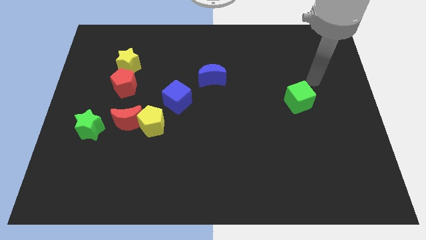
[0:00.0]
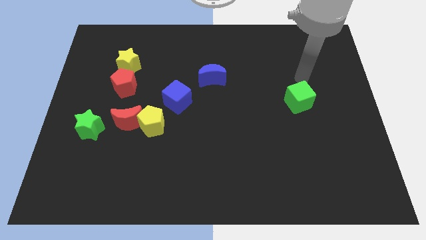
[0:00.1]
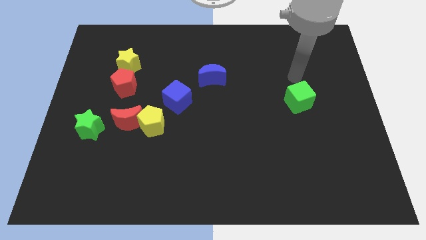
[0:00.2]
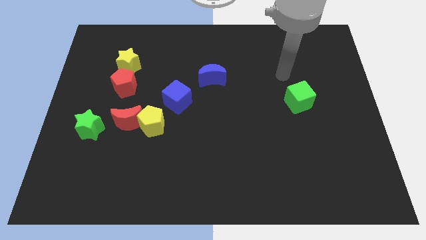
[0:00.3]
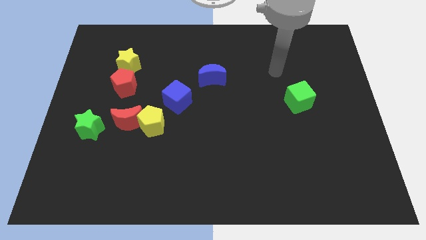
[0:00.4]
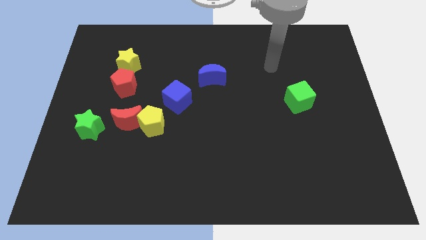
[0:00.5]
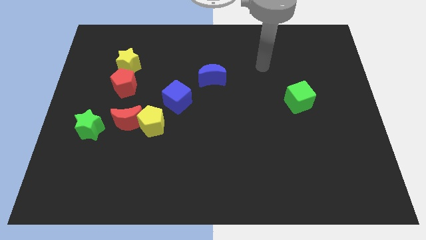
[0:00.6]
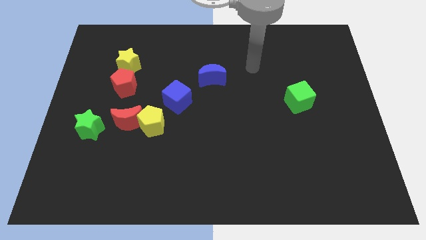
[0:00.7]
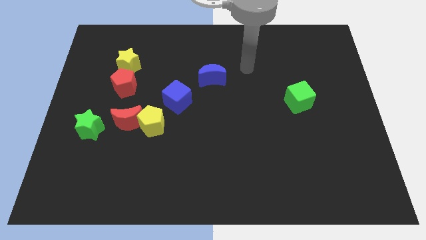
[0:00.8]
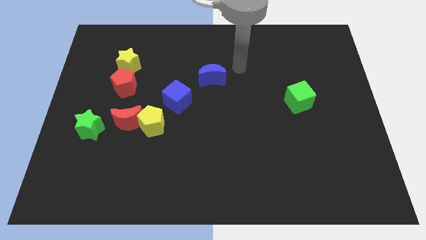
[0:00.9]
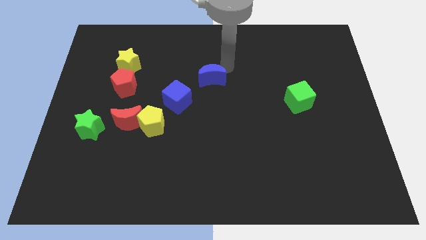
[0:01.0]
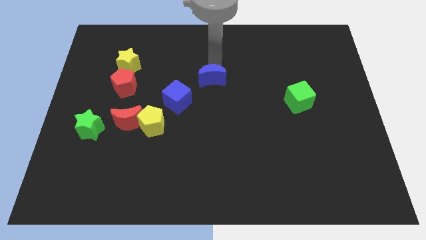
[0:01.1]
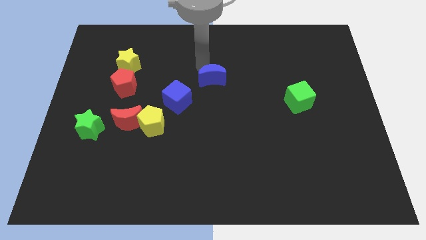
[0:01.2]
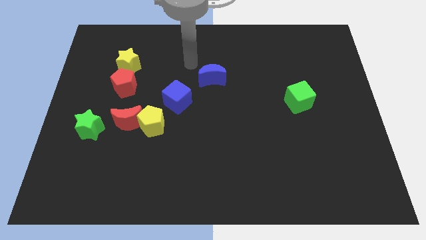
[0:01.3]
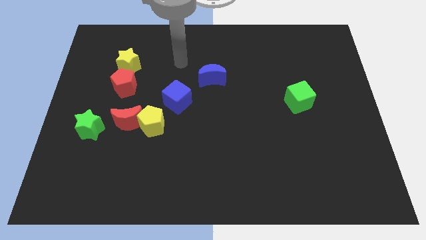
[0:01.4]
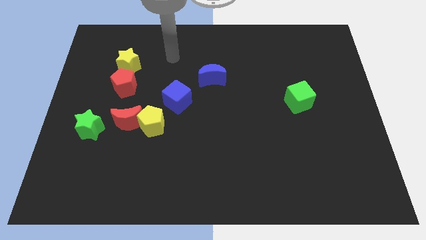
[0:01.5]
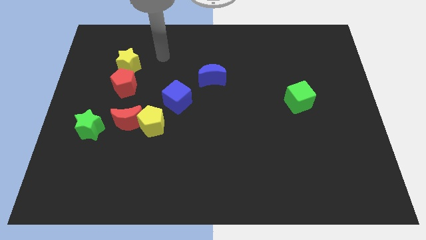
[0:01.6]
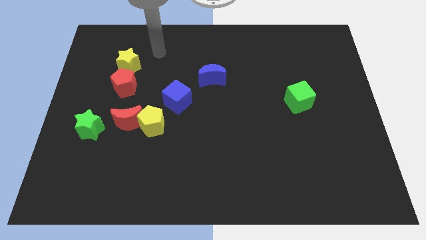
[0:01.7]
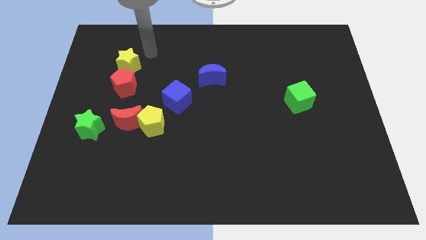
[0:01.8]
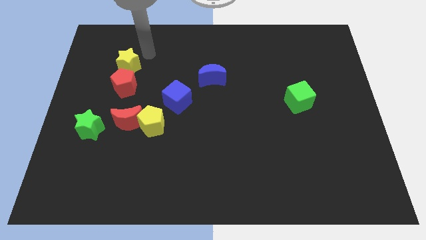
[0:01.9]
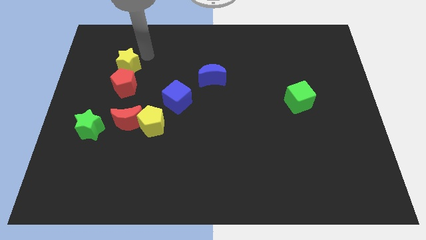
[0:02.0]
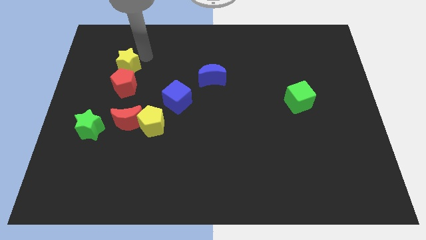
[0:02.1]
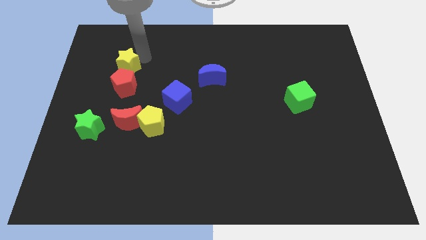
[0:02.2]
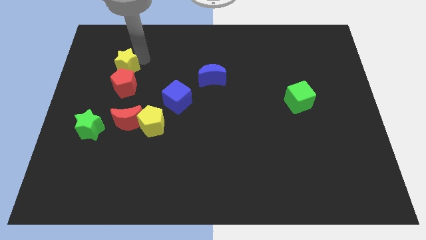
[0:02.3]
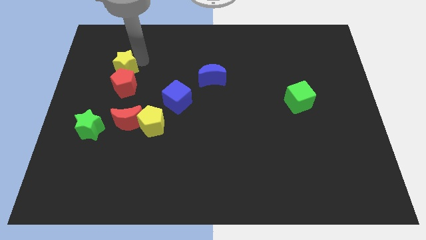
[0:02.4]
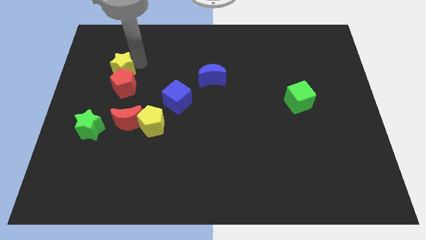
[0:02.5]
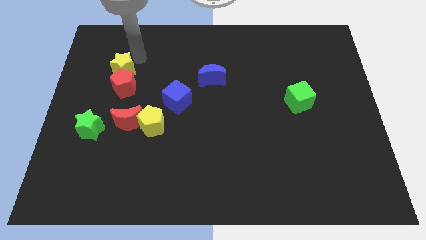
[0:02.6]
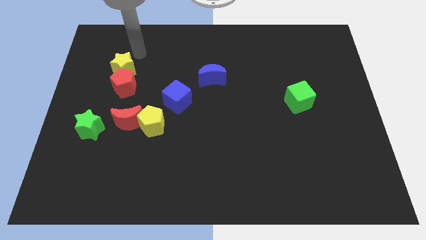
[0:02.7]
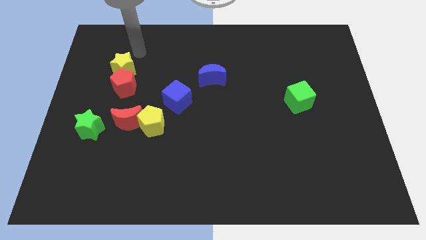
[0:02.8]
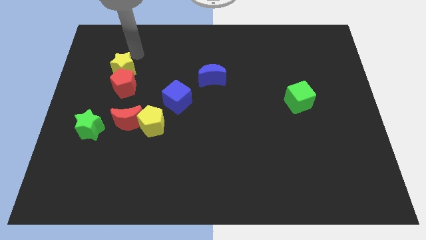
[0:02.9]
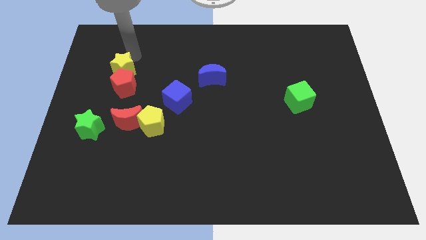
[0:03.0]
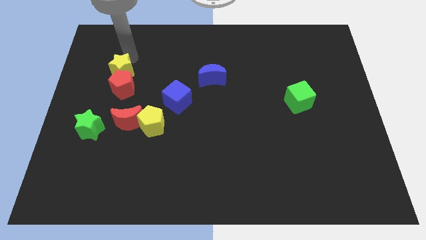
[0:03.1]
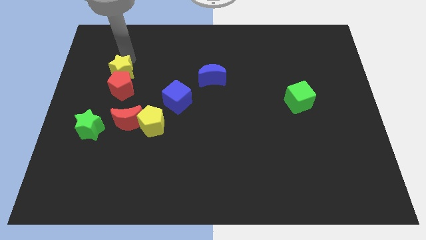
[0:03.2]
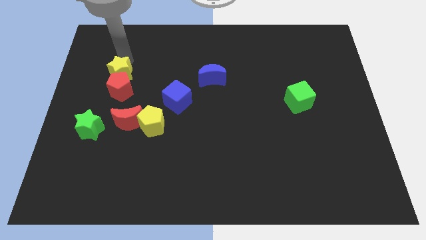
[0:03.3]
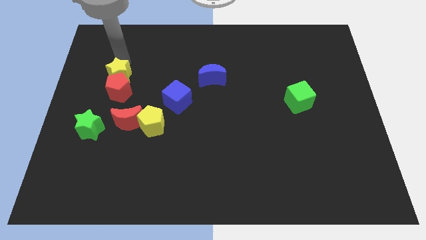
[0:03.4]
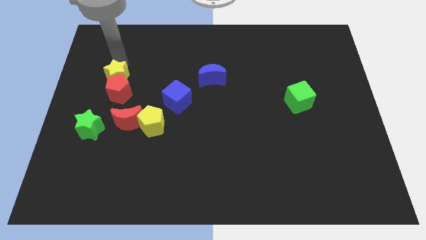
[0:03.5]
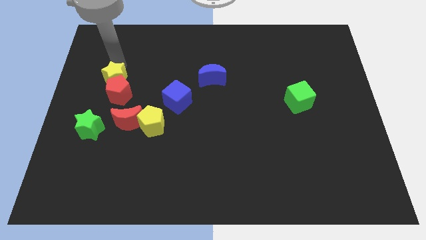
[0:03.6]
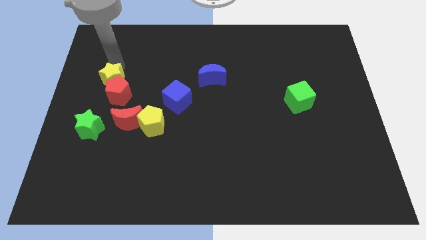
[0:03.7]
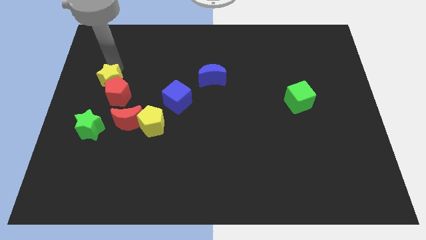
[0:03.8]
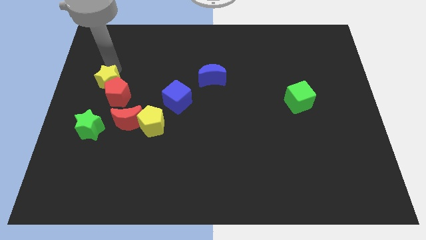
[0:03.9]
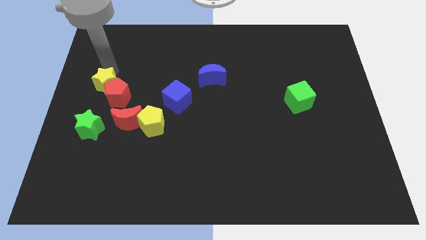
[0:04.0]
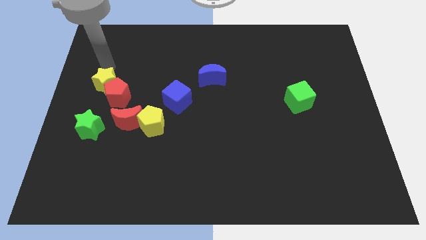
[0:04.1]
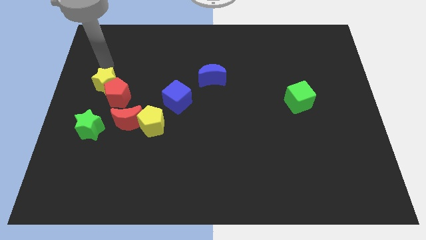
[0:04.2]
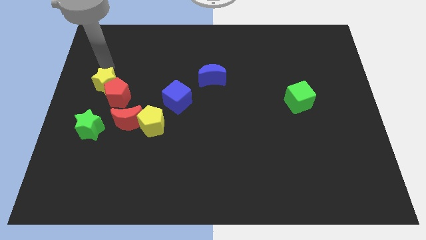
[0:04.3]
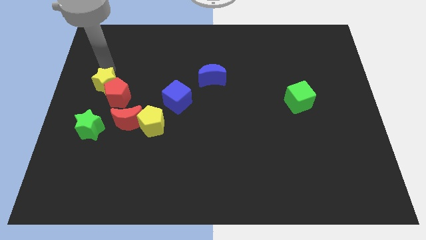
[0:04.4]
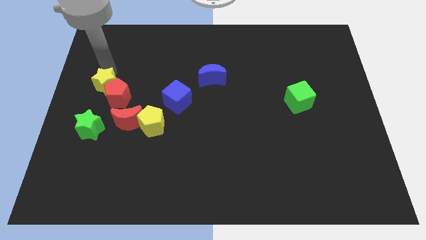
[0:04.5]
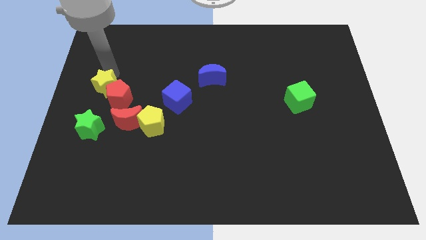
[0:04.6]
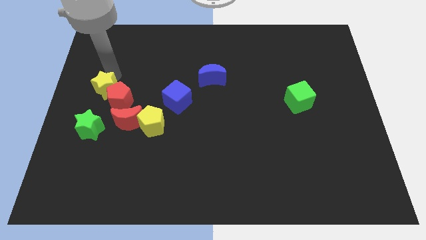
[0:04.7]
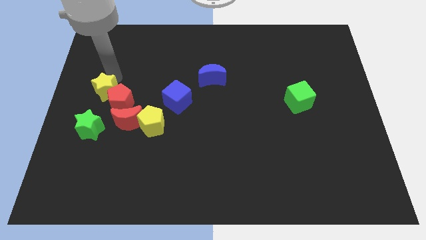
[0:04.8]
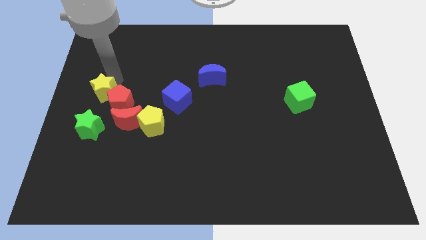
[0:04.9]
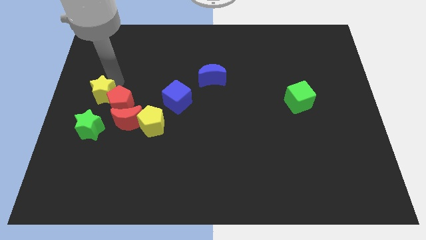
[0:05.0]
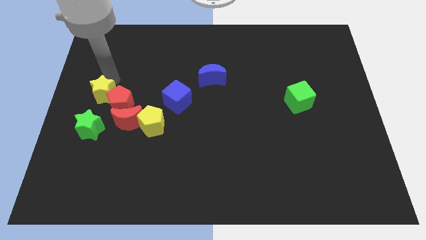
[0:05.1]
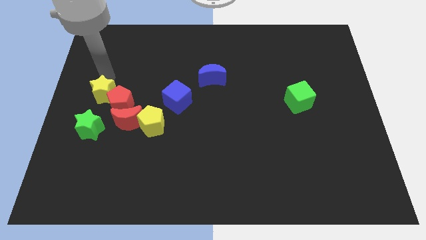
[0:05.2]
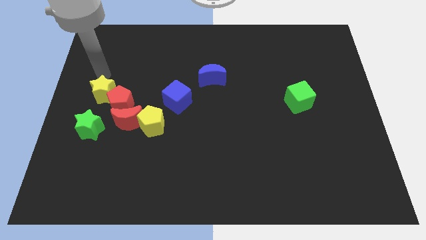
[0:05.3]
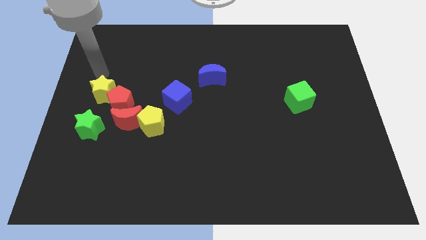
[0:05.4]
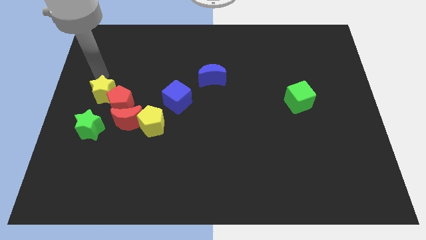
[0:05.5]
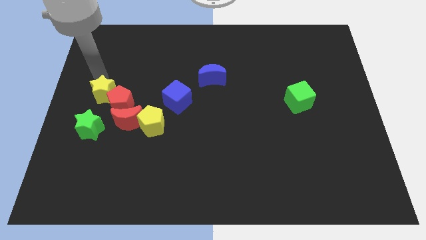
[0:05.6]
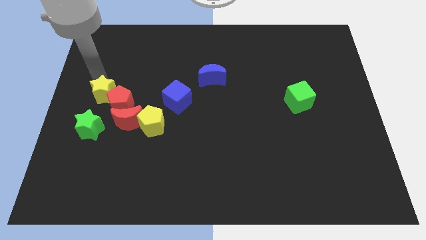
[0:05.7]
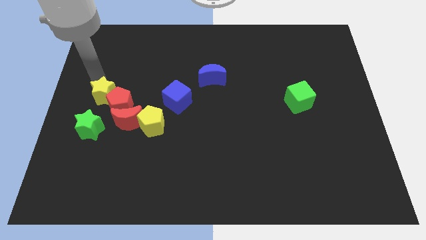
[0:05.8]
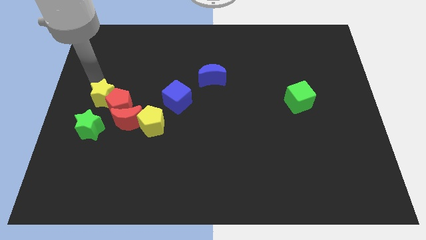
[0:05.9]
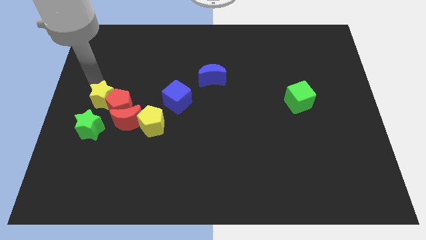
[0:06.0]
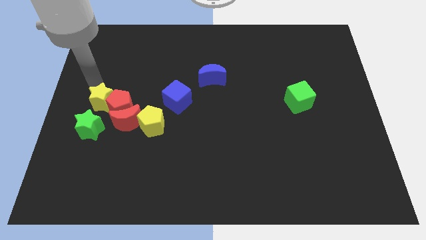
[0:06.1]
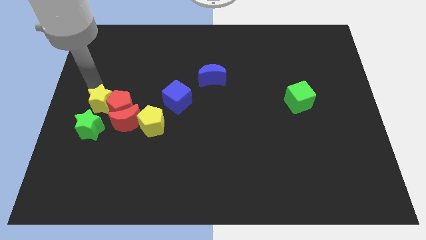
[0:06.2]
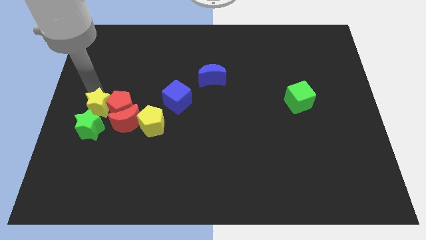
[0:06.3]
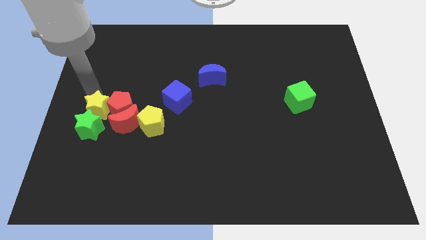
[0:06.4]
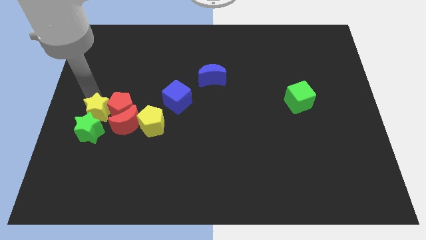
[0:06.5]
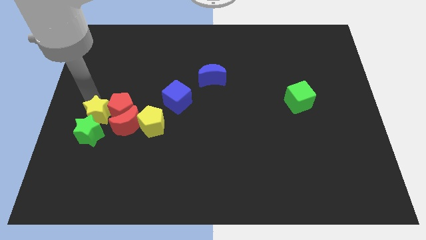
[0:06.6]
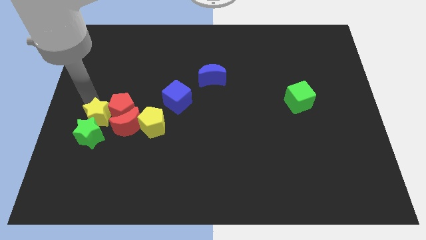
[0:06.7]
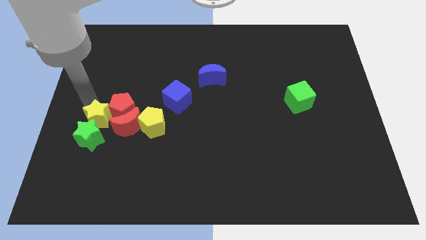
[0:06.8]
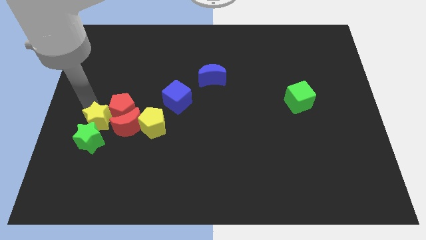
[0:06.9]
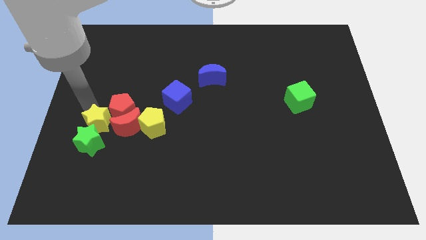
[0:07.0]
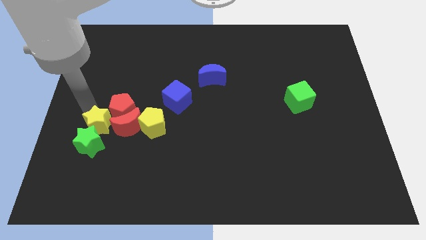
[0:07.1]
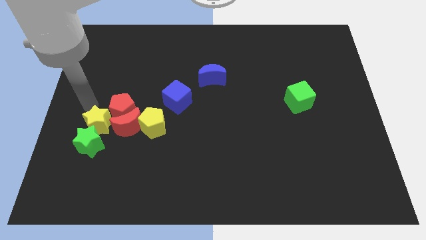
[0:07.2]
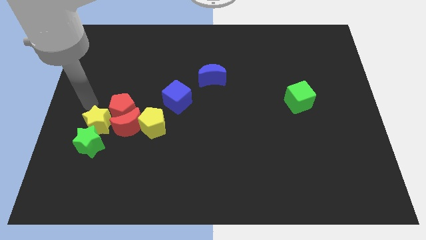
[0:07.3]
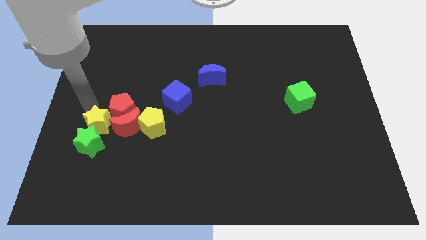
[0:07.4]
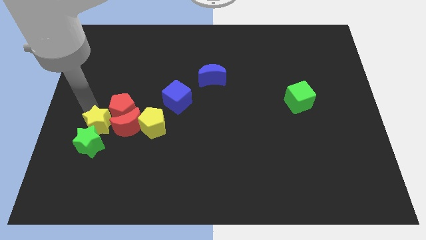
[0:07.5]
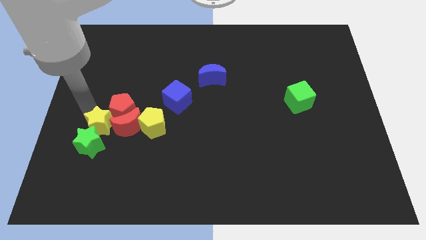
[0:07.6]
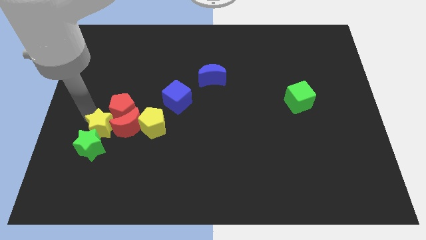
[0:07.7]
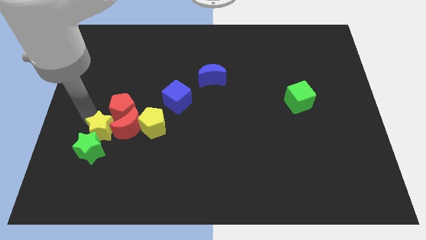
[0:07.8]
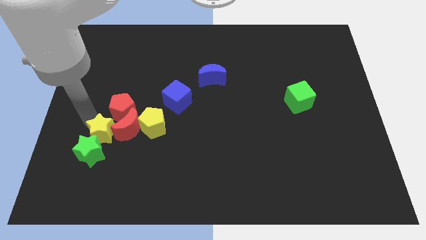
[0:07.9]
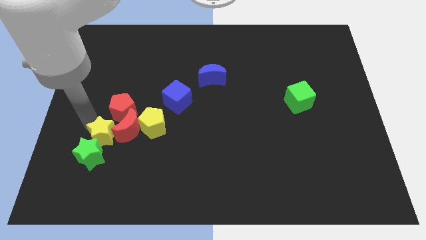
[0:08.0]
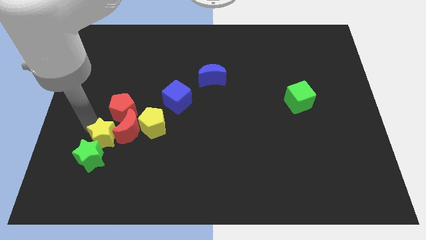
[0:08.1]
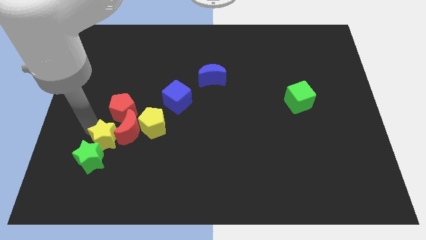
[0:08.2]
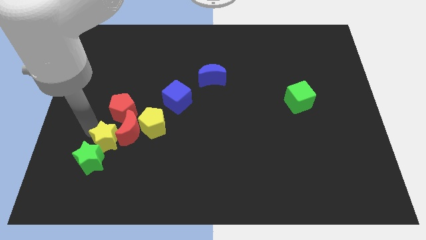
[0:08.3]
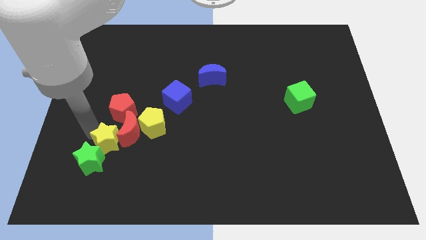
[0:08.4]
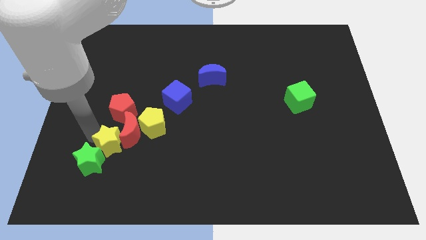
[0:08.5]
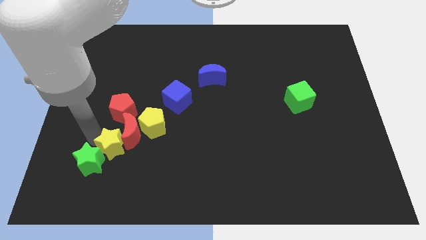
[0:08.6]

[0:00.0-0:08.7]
slide the yellow star to the bottom side of the red moon
